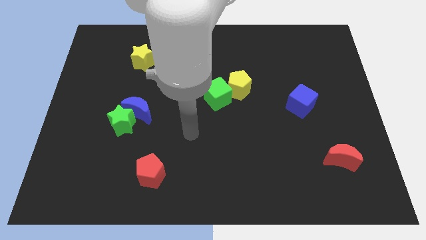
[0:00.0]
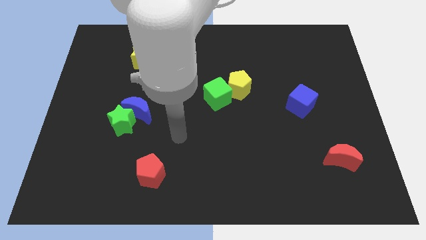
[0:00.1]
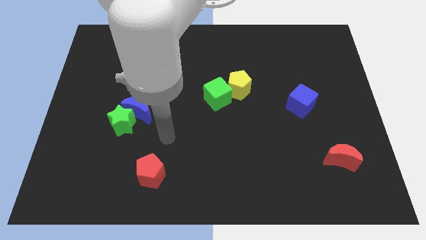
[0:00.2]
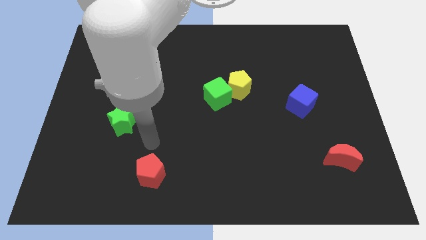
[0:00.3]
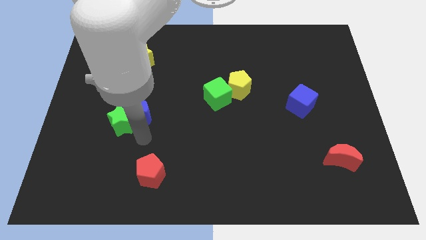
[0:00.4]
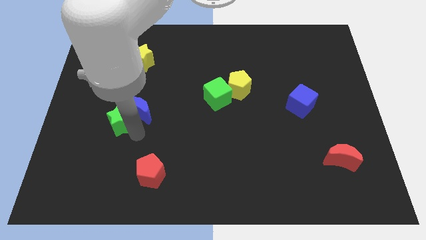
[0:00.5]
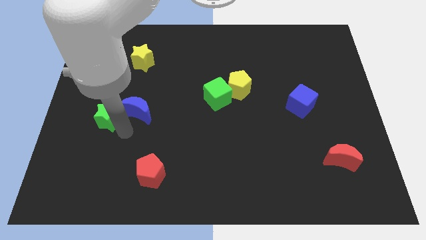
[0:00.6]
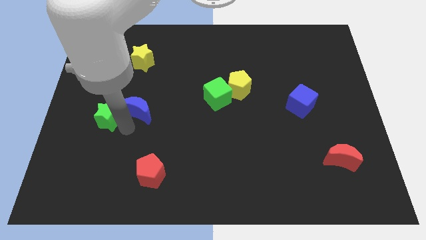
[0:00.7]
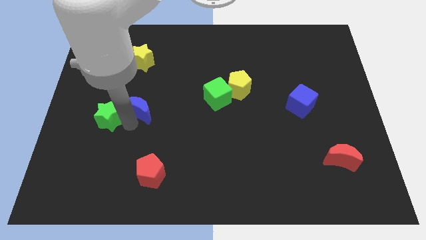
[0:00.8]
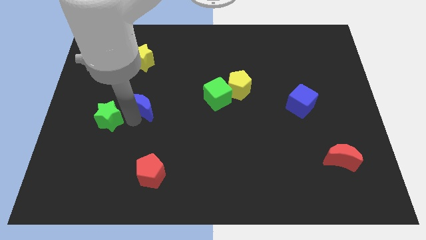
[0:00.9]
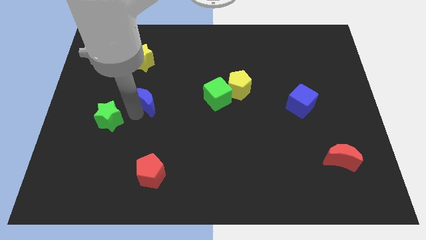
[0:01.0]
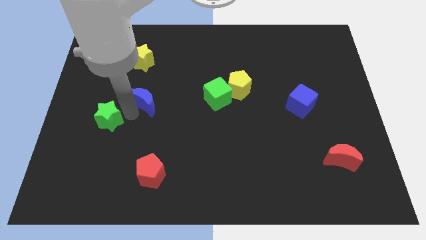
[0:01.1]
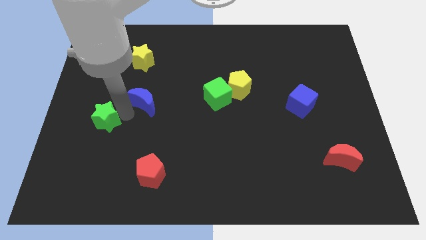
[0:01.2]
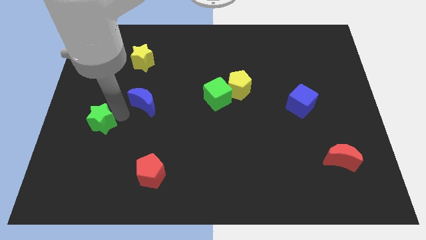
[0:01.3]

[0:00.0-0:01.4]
move the blue moon away from the green star

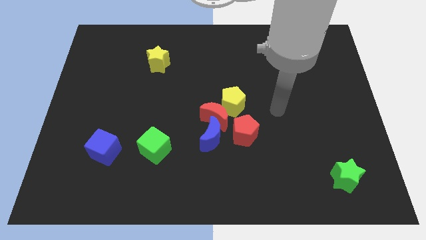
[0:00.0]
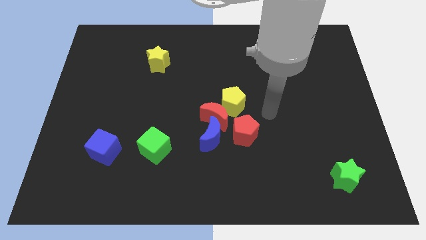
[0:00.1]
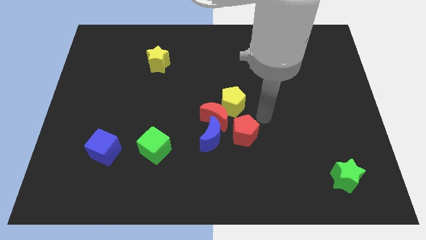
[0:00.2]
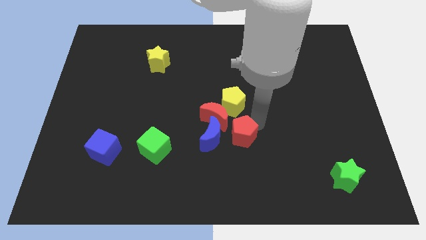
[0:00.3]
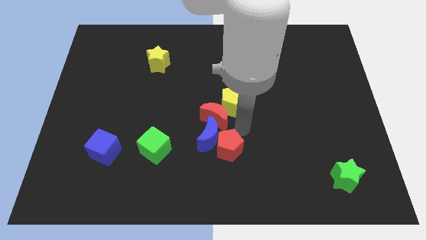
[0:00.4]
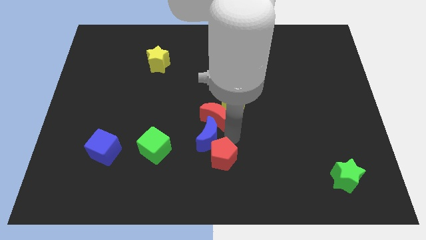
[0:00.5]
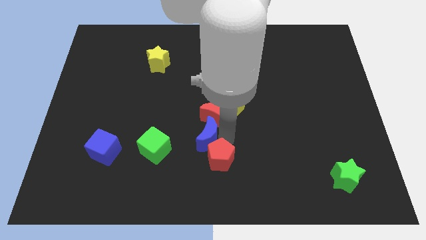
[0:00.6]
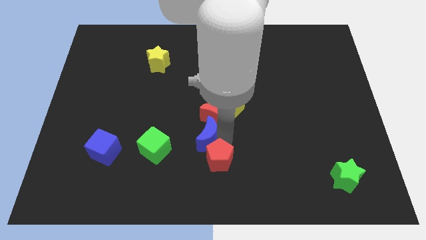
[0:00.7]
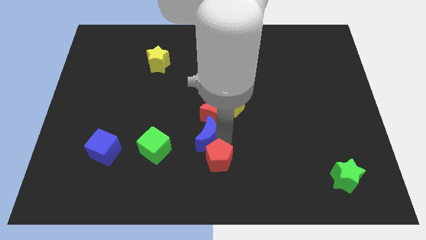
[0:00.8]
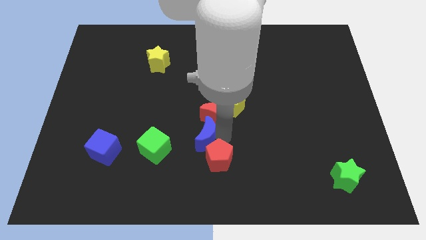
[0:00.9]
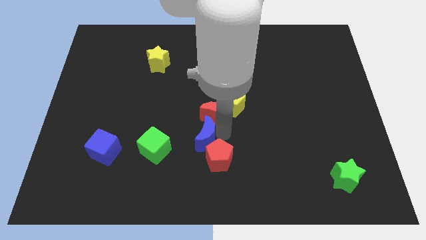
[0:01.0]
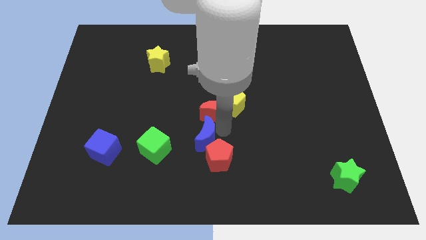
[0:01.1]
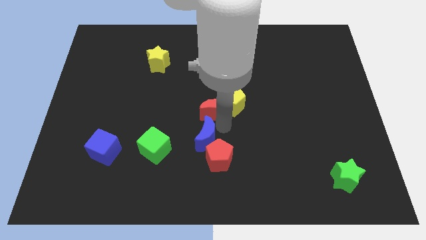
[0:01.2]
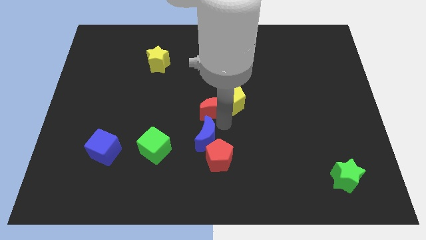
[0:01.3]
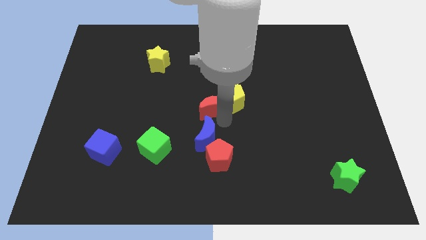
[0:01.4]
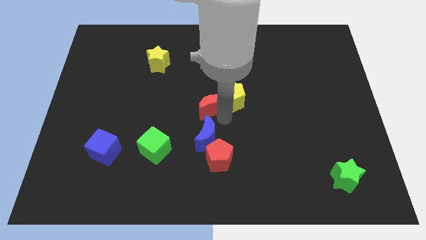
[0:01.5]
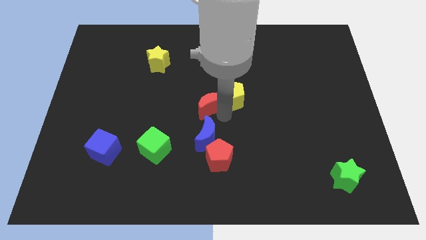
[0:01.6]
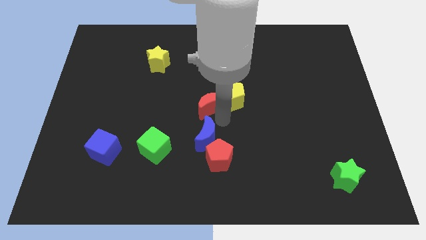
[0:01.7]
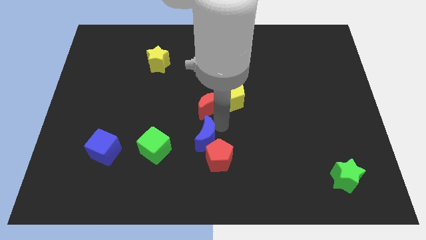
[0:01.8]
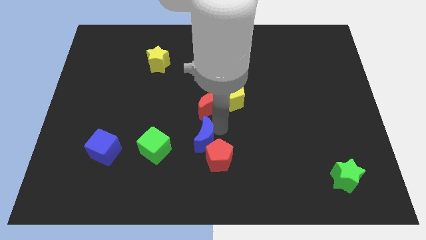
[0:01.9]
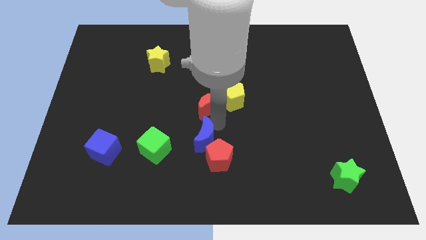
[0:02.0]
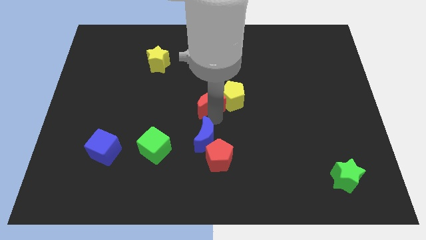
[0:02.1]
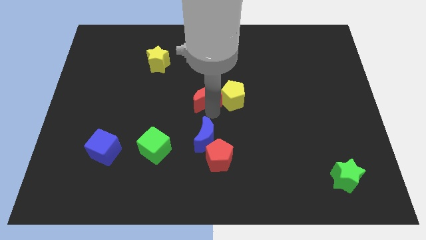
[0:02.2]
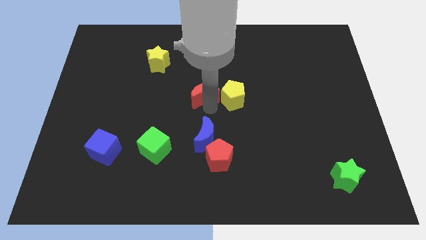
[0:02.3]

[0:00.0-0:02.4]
separate the red moon from the group of blocks

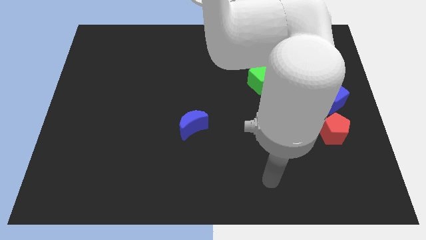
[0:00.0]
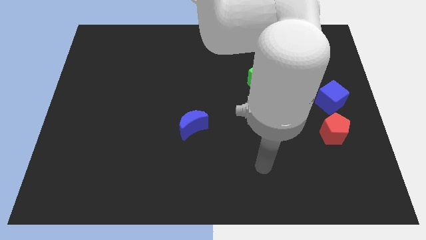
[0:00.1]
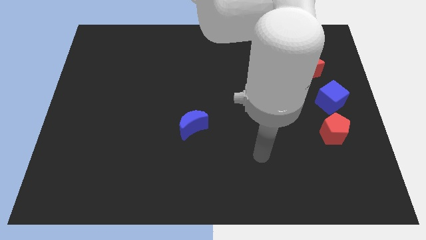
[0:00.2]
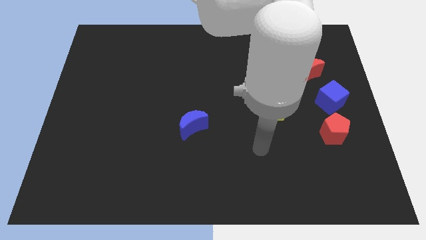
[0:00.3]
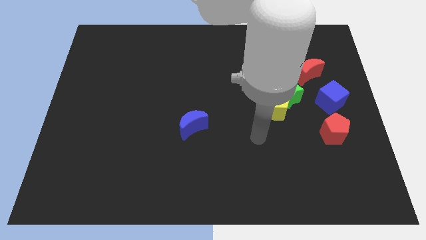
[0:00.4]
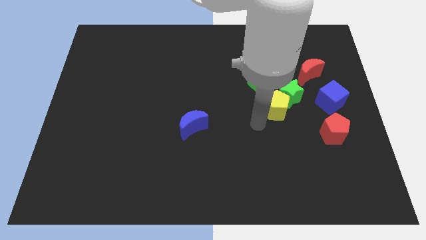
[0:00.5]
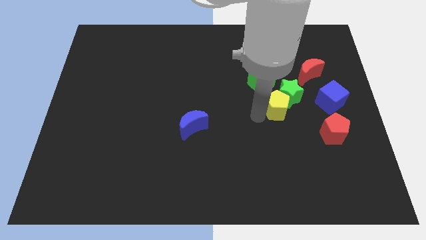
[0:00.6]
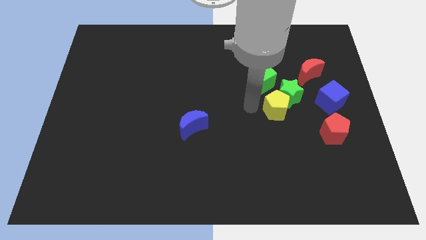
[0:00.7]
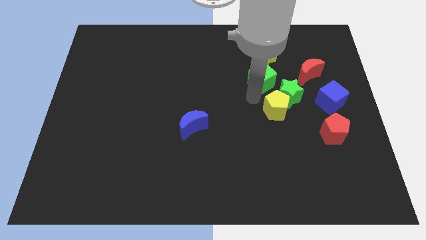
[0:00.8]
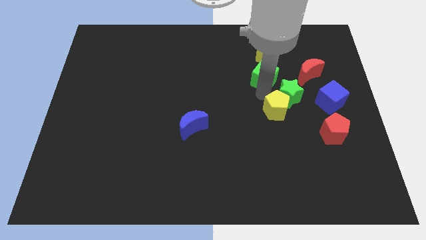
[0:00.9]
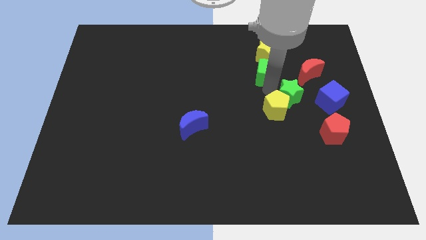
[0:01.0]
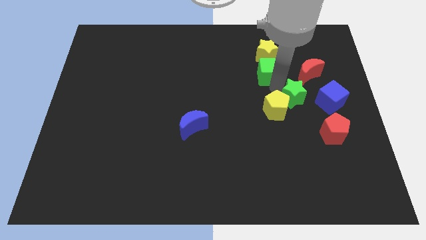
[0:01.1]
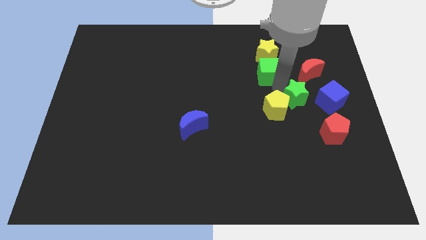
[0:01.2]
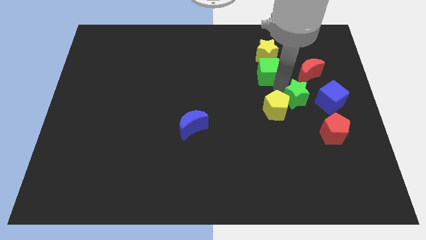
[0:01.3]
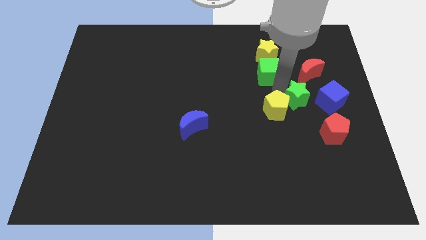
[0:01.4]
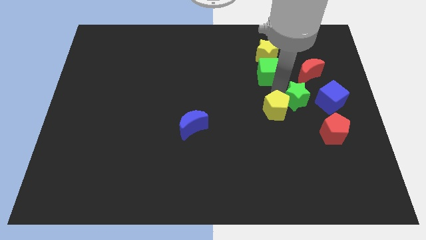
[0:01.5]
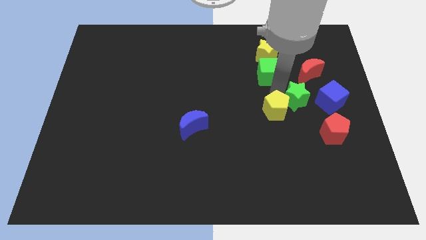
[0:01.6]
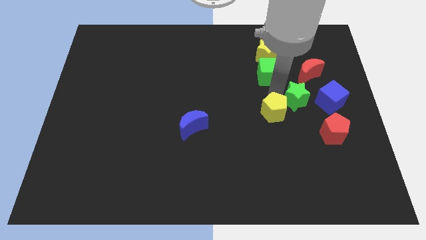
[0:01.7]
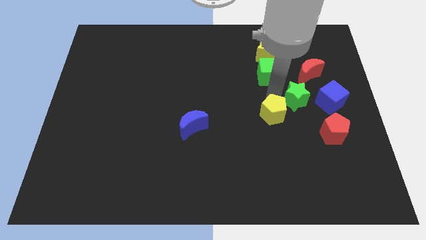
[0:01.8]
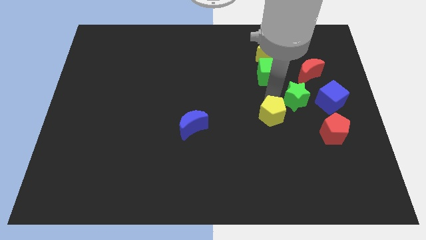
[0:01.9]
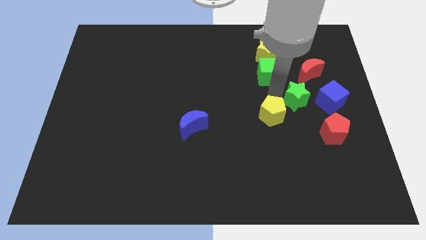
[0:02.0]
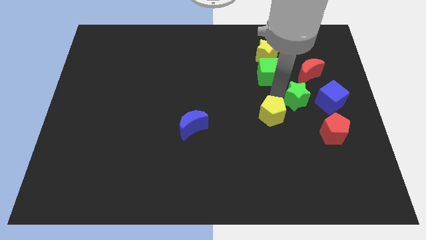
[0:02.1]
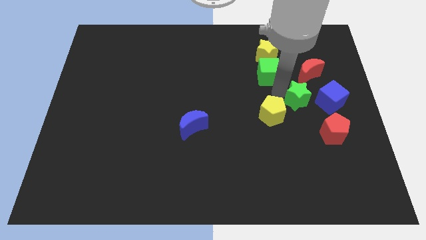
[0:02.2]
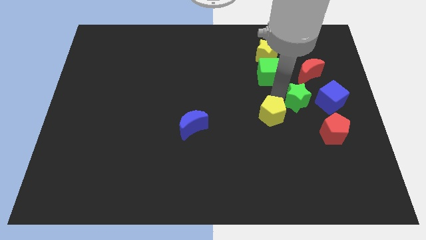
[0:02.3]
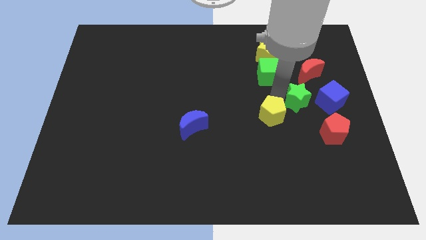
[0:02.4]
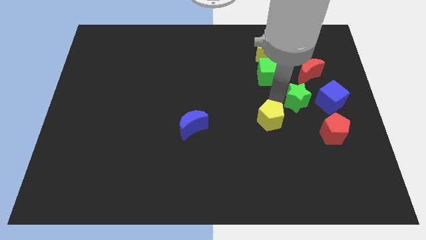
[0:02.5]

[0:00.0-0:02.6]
separate the yellow pentagon from the green star and green cube

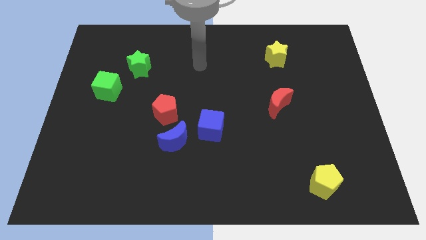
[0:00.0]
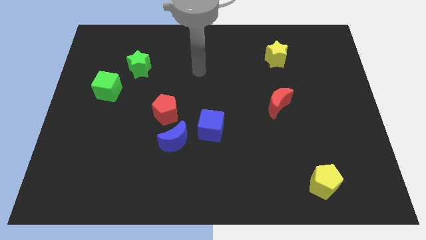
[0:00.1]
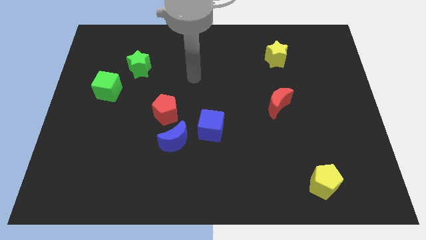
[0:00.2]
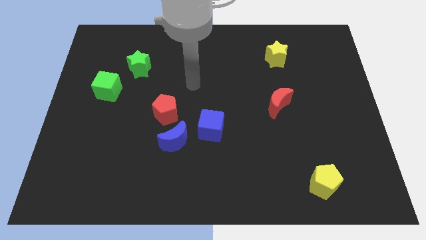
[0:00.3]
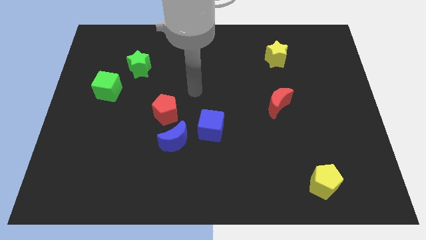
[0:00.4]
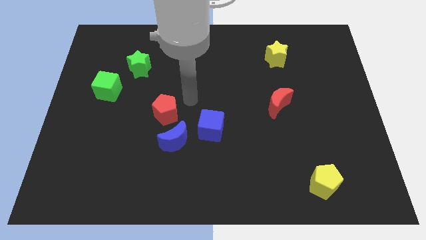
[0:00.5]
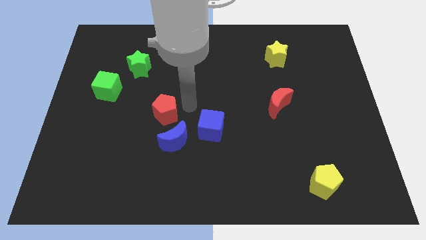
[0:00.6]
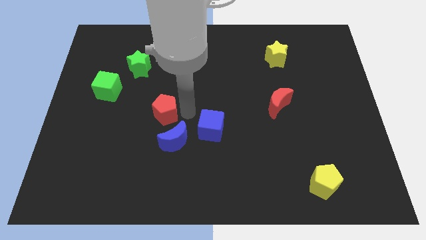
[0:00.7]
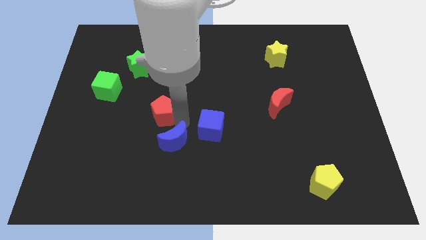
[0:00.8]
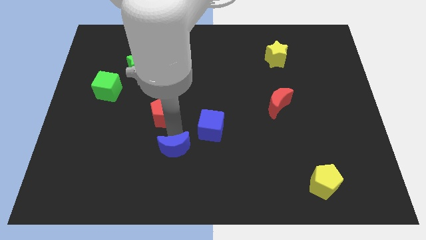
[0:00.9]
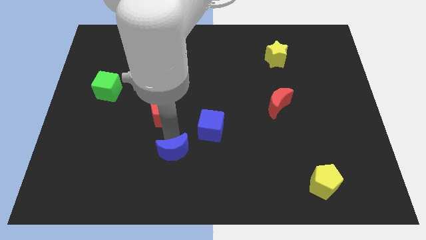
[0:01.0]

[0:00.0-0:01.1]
move the red pentagon away from the blue moon

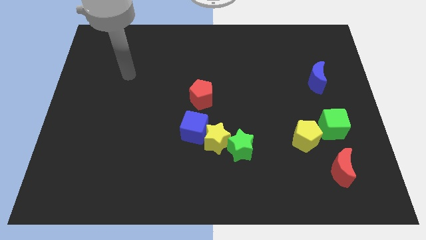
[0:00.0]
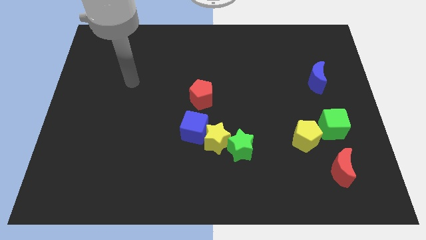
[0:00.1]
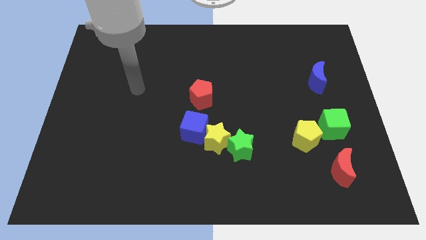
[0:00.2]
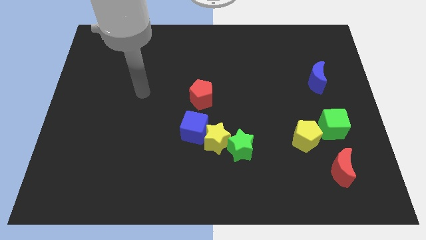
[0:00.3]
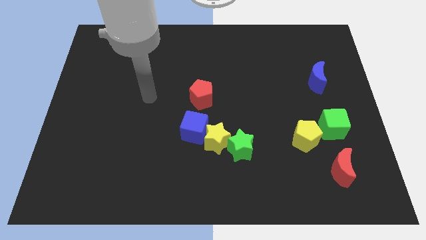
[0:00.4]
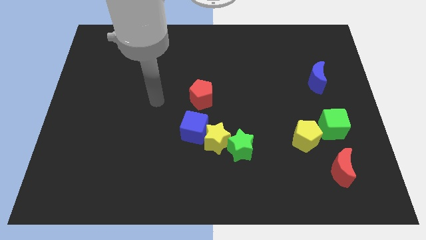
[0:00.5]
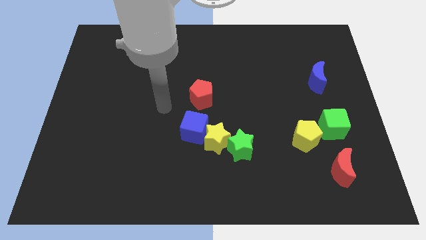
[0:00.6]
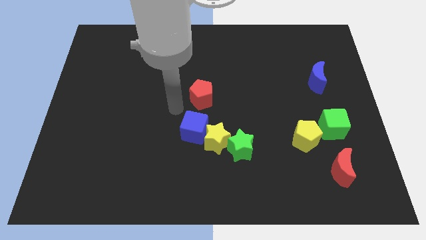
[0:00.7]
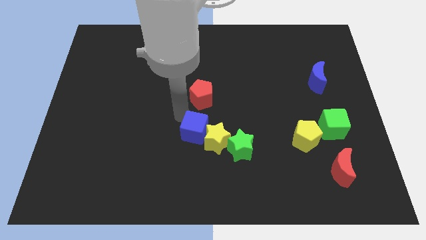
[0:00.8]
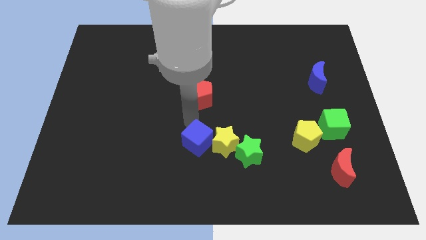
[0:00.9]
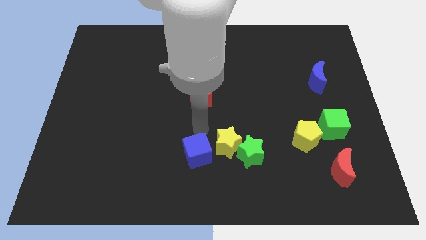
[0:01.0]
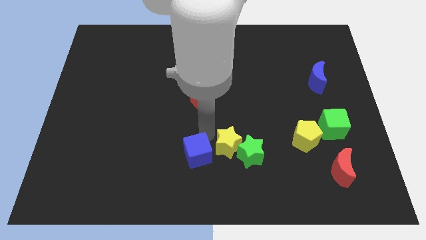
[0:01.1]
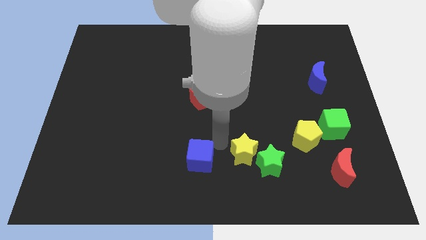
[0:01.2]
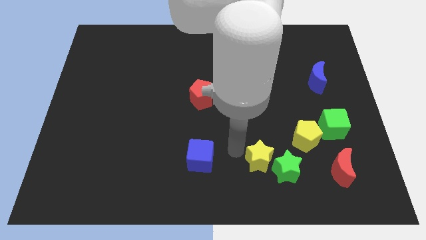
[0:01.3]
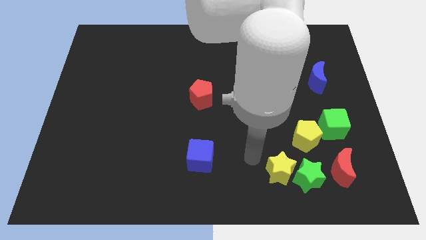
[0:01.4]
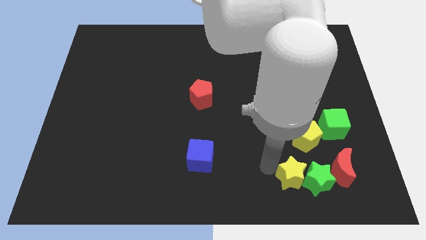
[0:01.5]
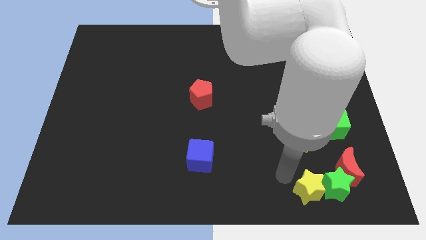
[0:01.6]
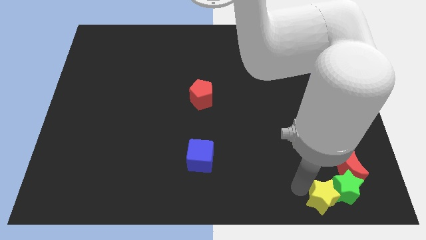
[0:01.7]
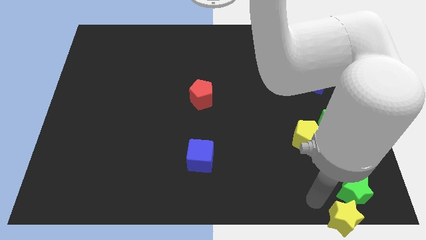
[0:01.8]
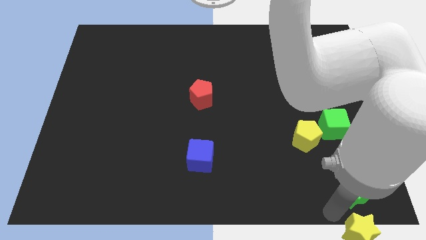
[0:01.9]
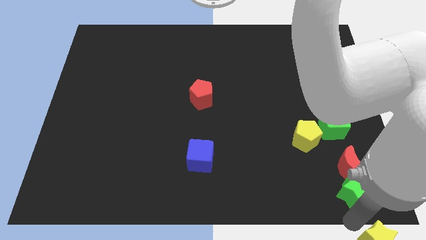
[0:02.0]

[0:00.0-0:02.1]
move the green star away from the yellow star
